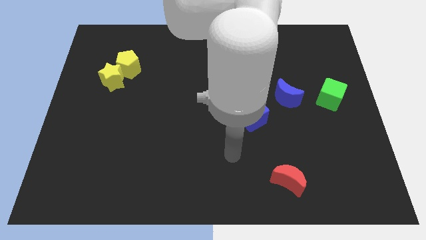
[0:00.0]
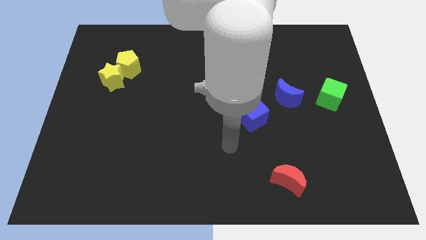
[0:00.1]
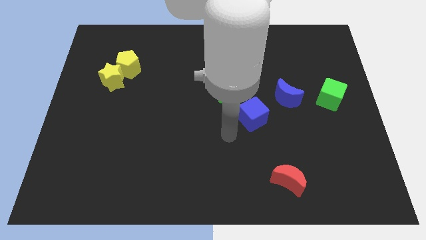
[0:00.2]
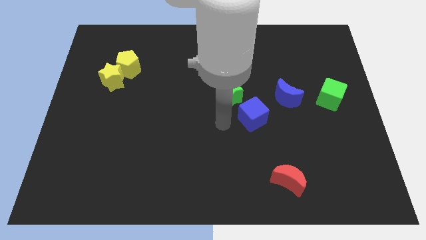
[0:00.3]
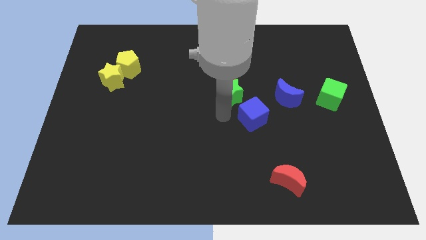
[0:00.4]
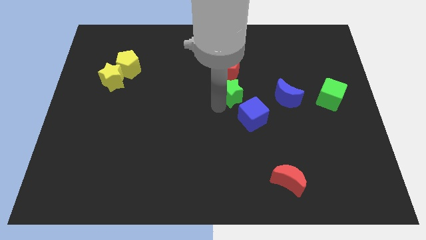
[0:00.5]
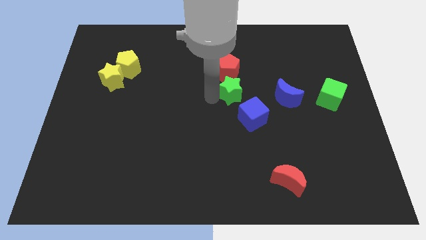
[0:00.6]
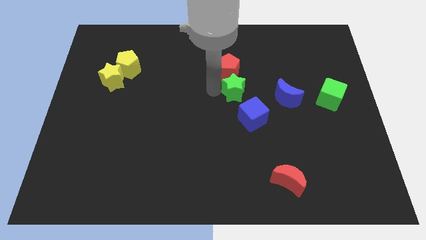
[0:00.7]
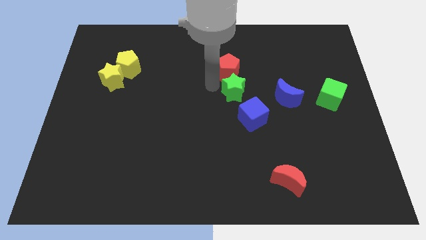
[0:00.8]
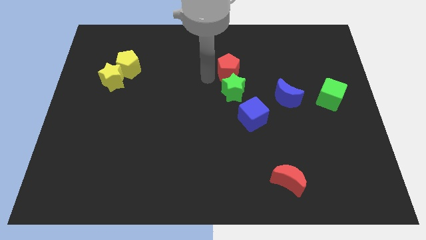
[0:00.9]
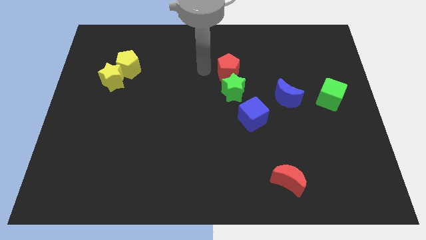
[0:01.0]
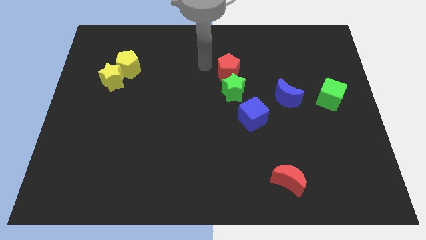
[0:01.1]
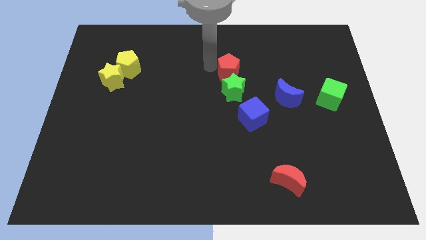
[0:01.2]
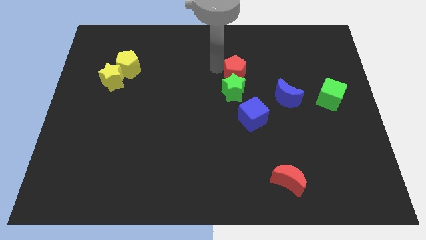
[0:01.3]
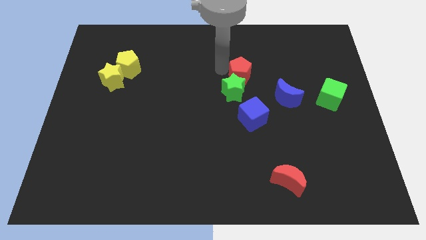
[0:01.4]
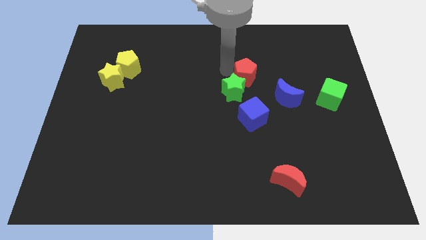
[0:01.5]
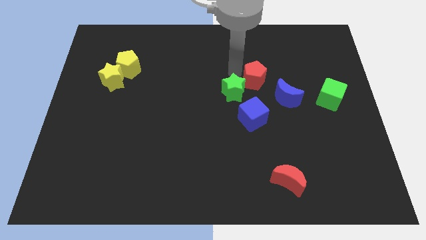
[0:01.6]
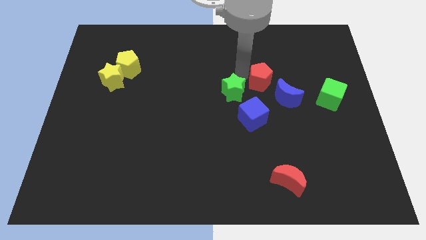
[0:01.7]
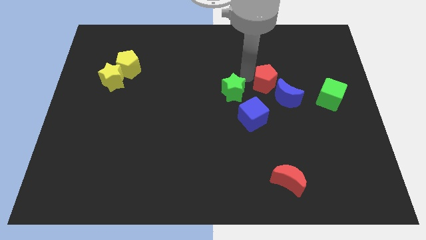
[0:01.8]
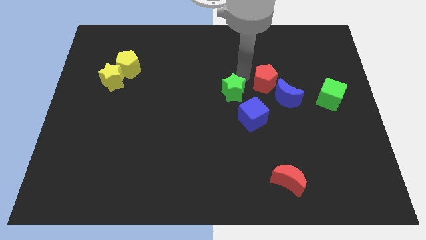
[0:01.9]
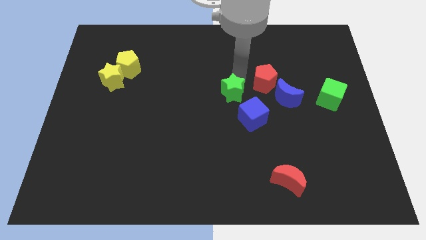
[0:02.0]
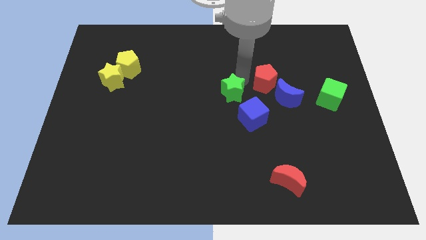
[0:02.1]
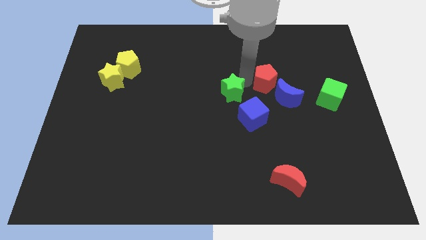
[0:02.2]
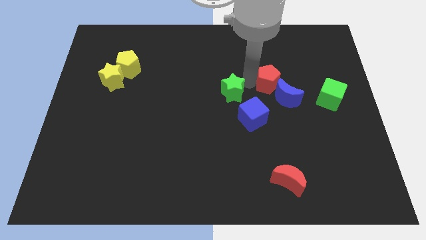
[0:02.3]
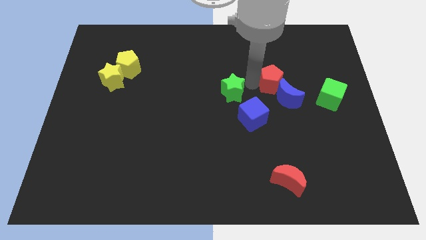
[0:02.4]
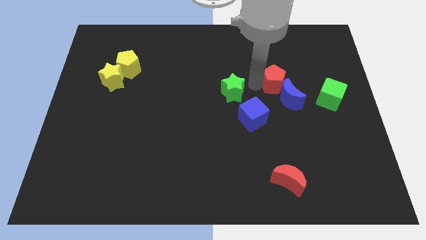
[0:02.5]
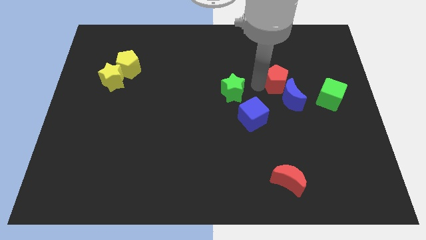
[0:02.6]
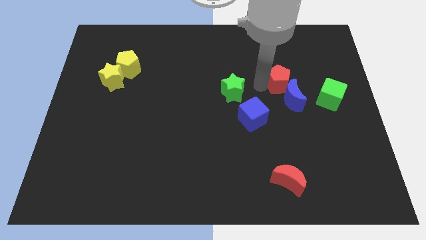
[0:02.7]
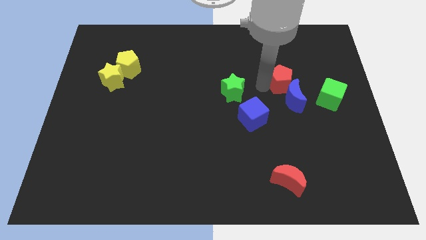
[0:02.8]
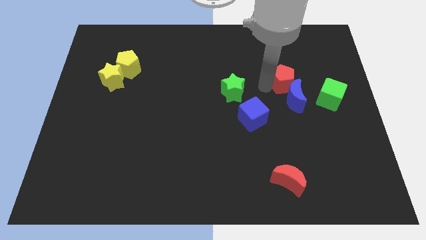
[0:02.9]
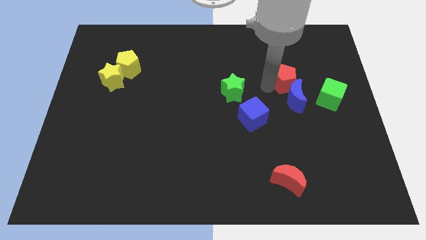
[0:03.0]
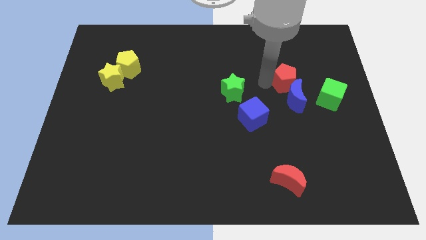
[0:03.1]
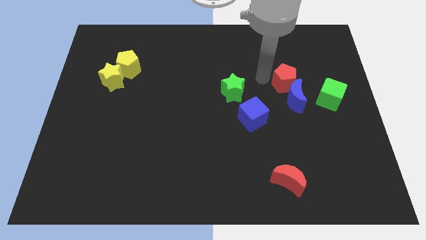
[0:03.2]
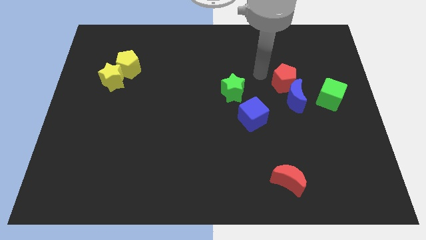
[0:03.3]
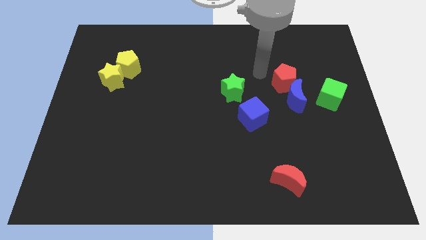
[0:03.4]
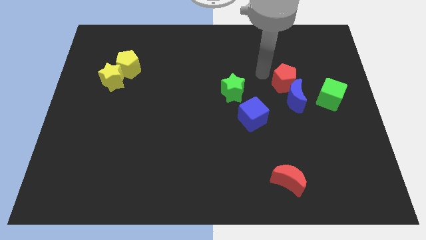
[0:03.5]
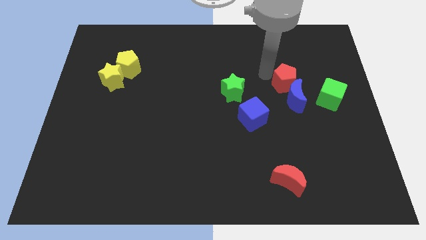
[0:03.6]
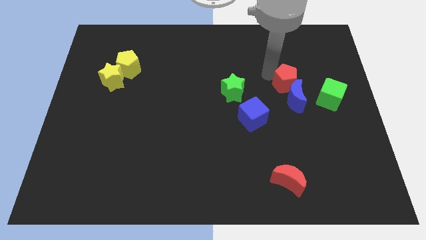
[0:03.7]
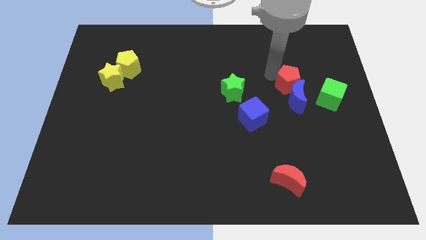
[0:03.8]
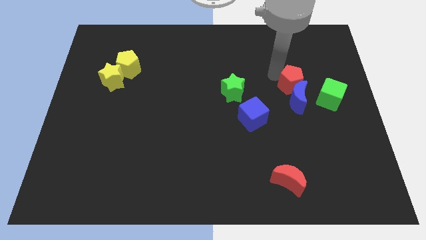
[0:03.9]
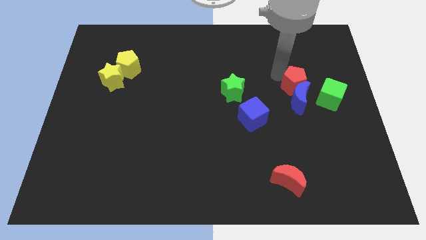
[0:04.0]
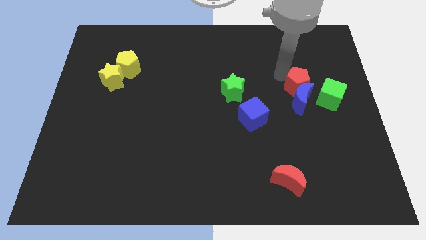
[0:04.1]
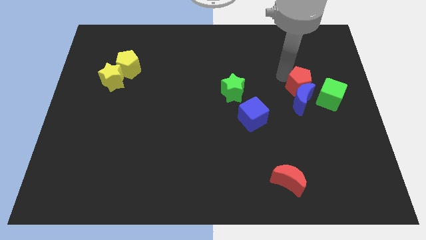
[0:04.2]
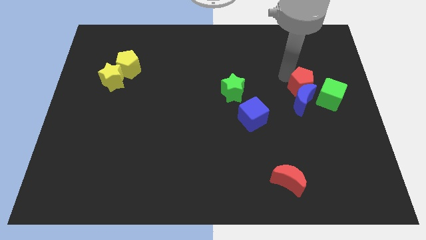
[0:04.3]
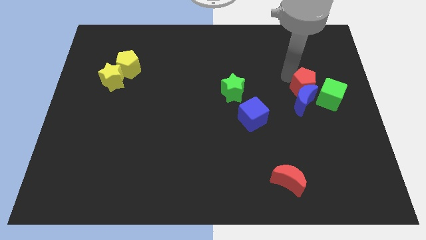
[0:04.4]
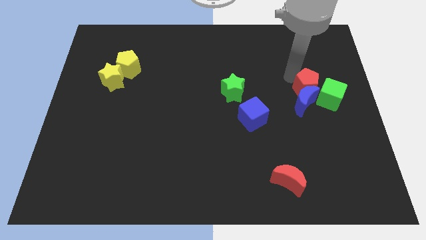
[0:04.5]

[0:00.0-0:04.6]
slide the red pentagon to the green cube

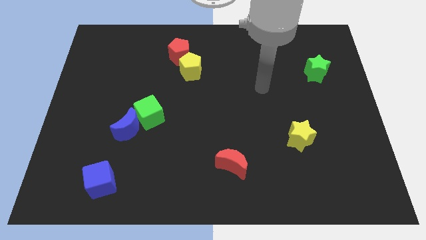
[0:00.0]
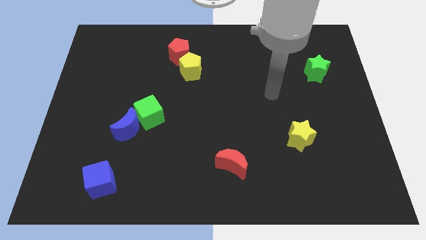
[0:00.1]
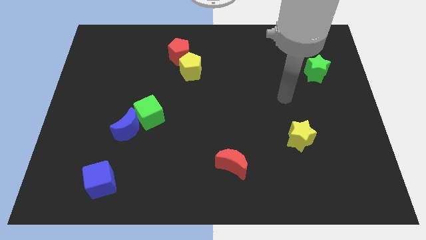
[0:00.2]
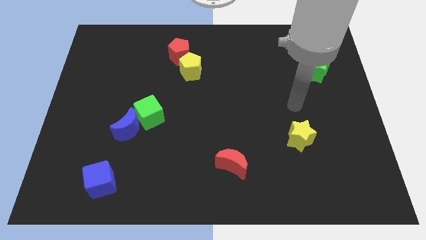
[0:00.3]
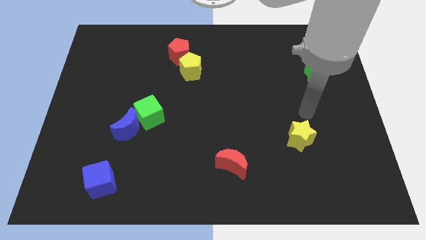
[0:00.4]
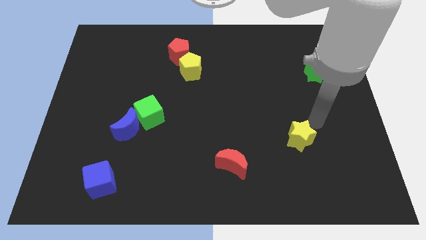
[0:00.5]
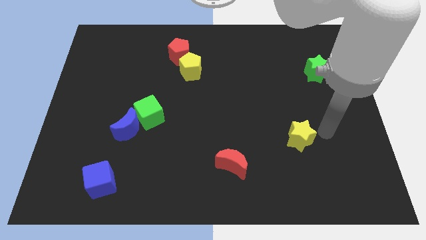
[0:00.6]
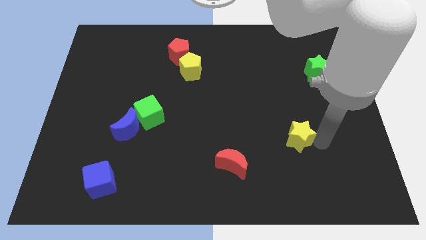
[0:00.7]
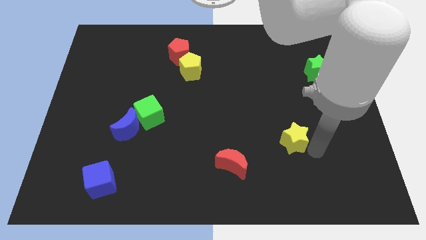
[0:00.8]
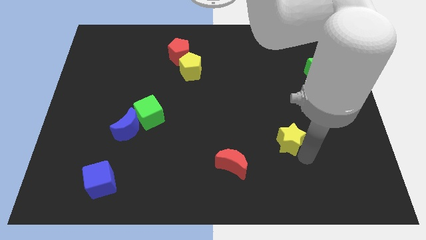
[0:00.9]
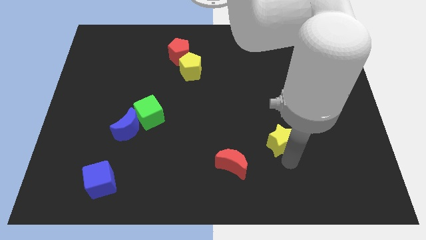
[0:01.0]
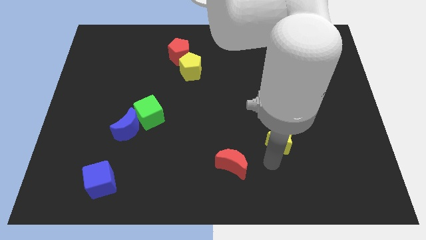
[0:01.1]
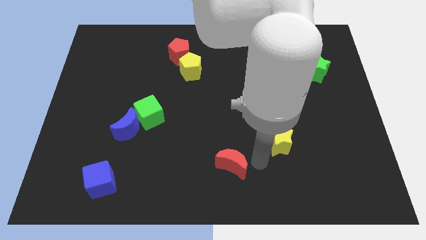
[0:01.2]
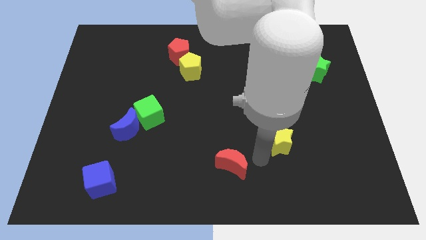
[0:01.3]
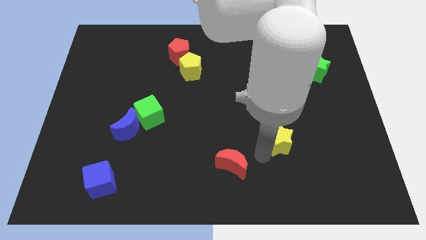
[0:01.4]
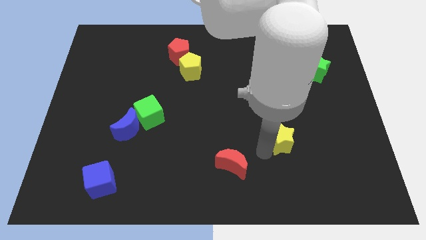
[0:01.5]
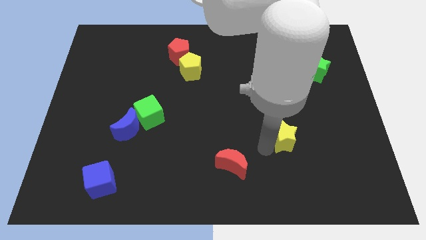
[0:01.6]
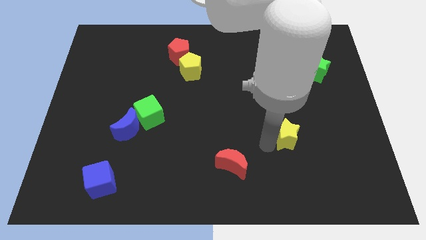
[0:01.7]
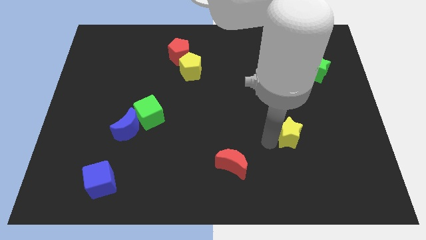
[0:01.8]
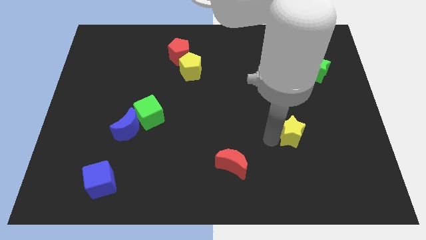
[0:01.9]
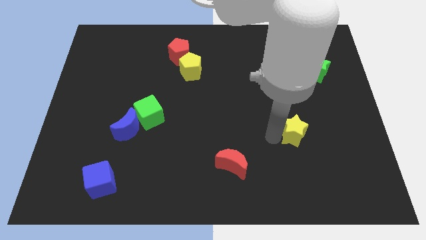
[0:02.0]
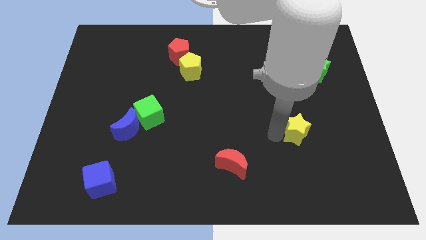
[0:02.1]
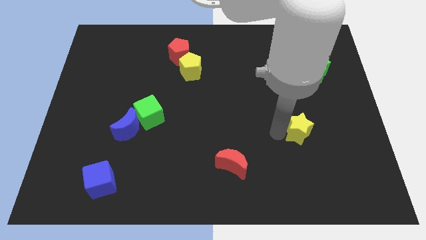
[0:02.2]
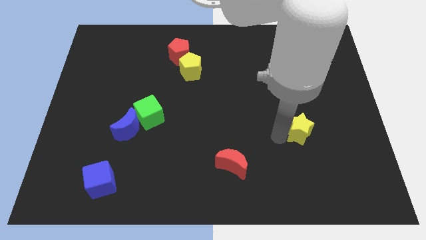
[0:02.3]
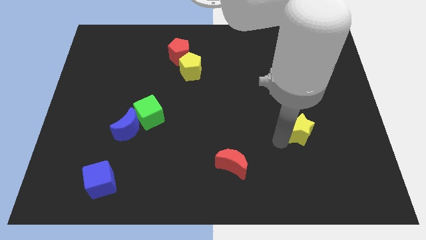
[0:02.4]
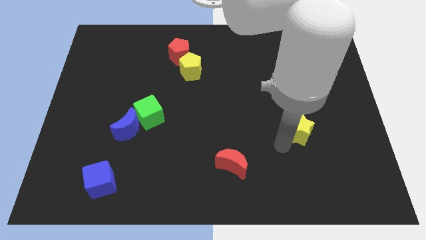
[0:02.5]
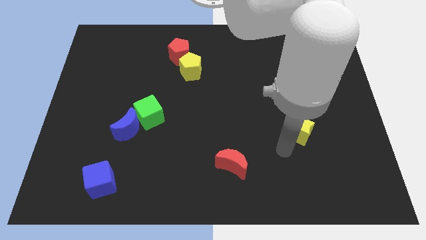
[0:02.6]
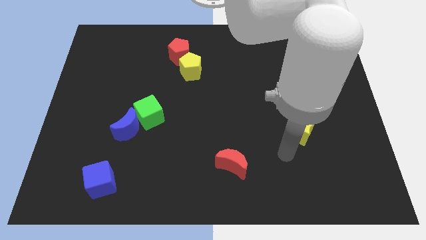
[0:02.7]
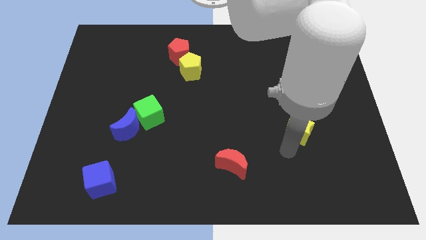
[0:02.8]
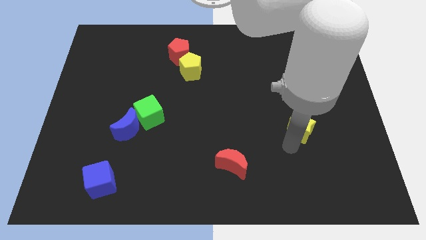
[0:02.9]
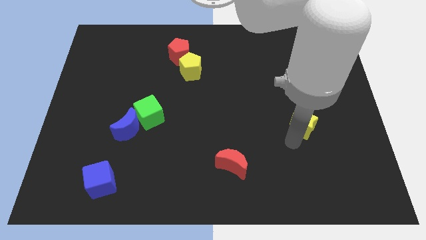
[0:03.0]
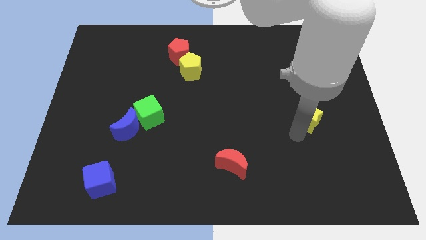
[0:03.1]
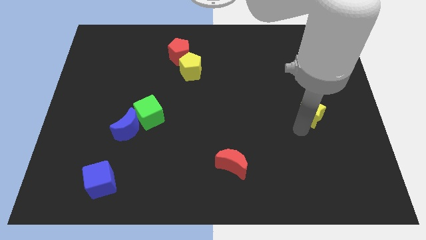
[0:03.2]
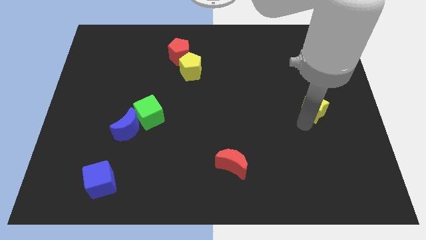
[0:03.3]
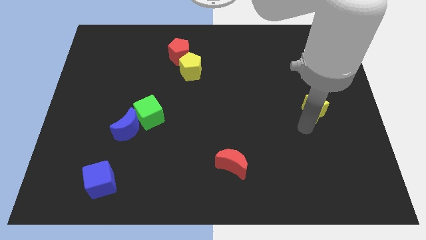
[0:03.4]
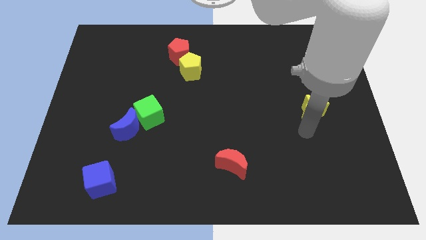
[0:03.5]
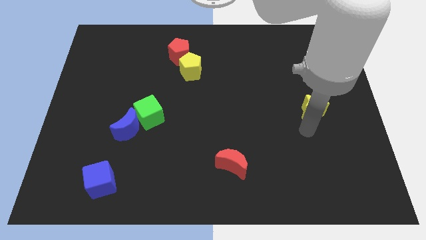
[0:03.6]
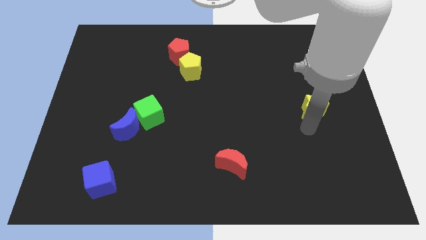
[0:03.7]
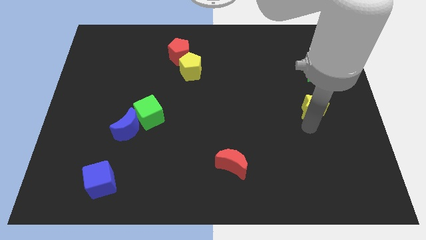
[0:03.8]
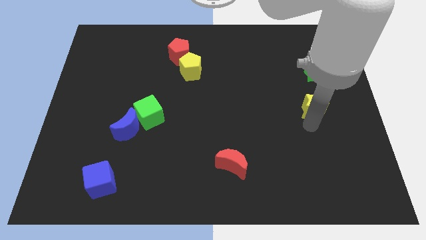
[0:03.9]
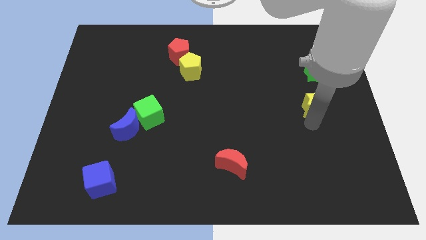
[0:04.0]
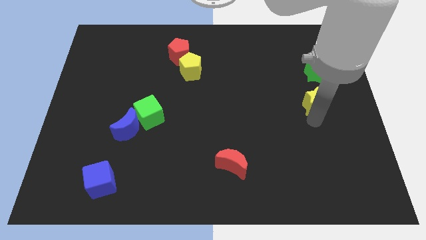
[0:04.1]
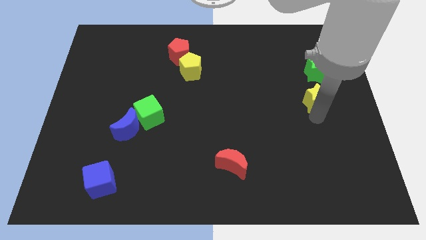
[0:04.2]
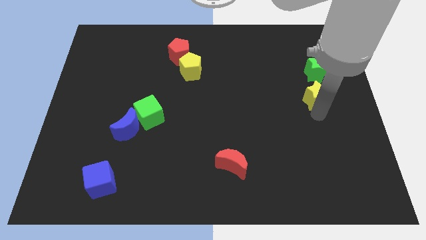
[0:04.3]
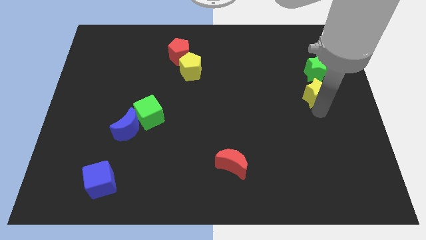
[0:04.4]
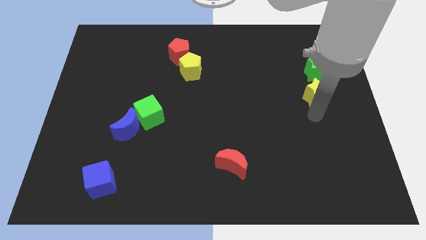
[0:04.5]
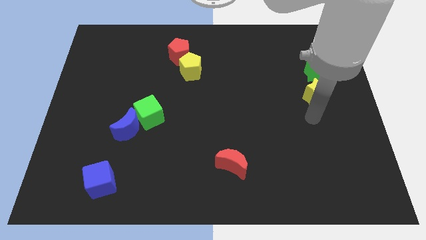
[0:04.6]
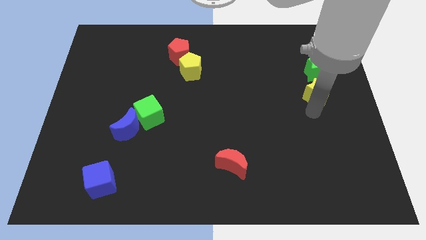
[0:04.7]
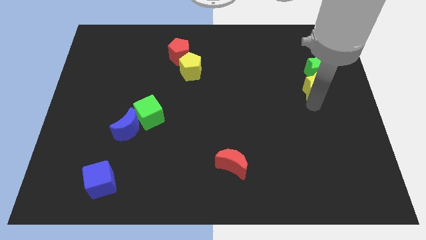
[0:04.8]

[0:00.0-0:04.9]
slide the yellow star towards the green star
